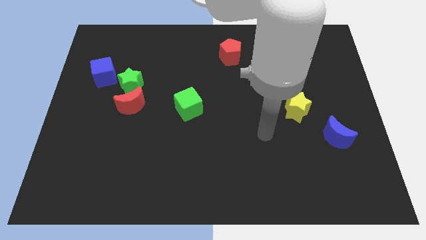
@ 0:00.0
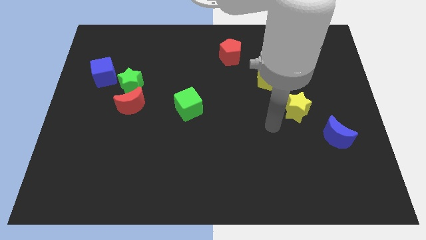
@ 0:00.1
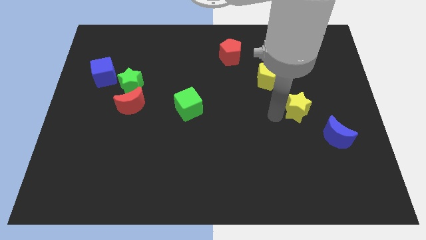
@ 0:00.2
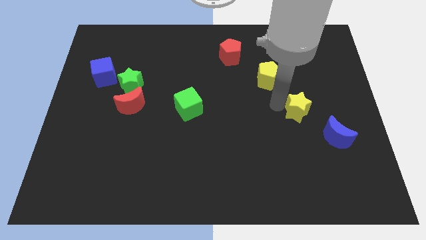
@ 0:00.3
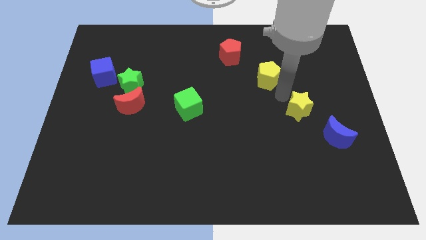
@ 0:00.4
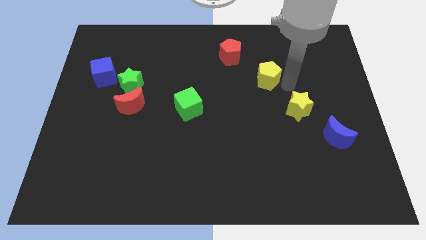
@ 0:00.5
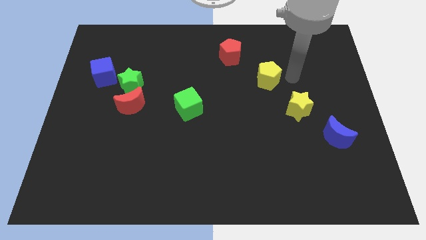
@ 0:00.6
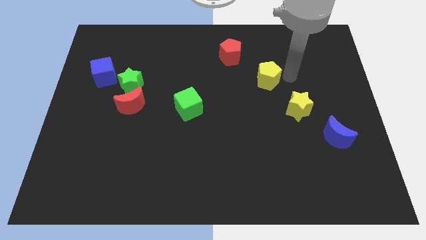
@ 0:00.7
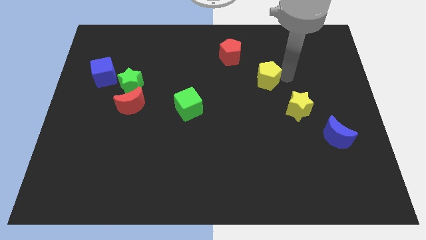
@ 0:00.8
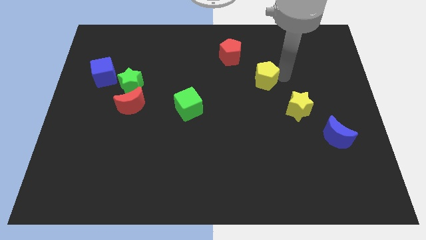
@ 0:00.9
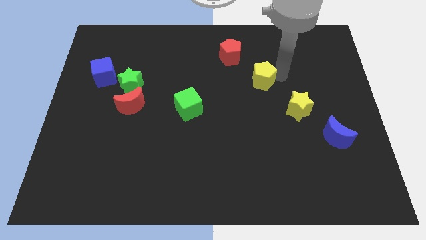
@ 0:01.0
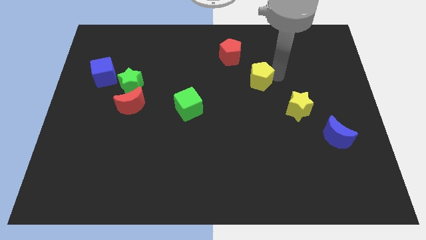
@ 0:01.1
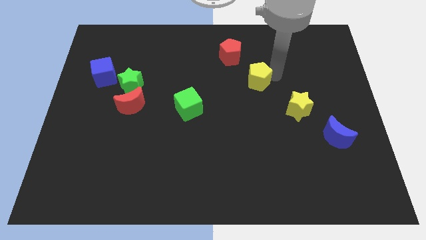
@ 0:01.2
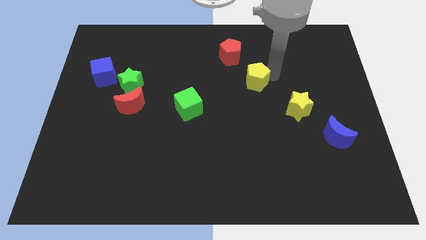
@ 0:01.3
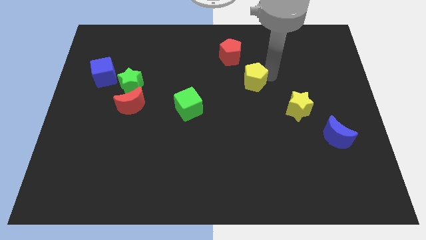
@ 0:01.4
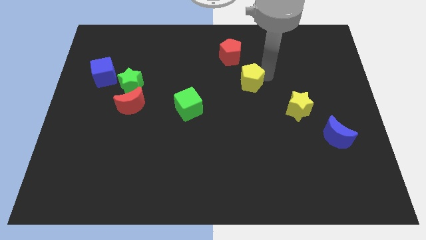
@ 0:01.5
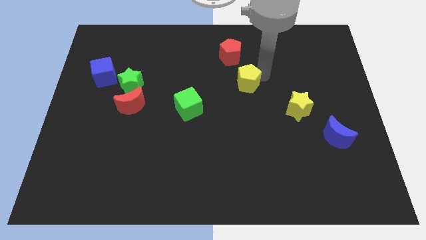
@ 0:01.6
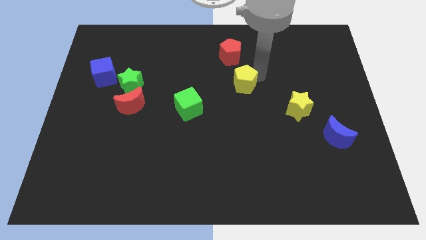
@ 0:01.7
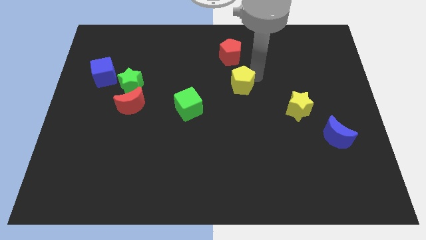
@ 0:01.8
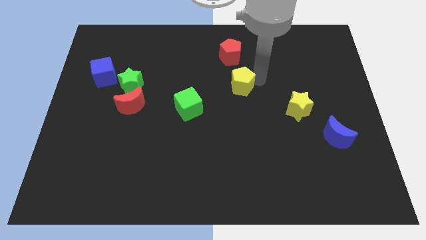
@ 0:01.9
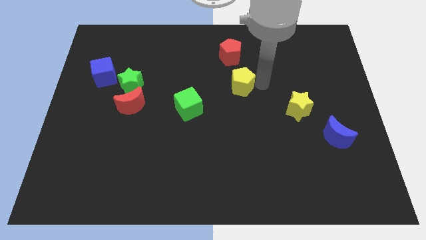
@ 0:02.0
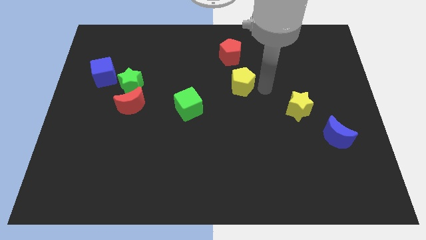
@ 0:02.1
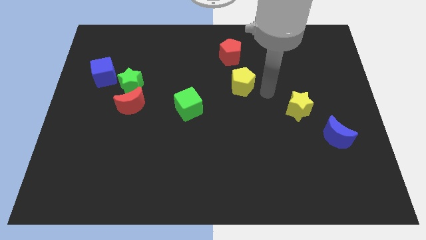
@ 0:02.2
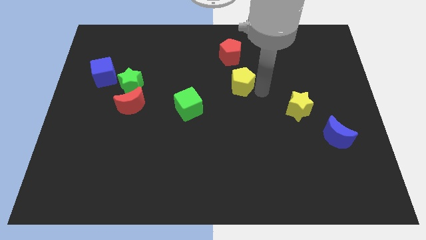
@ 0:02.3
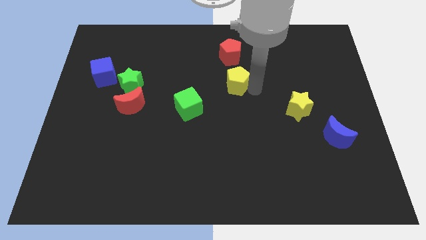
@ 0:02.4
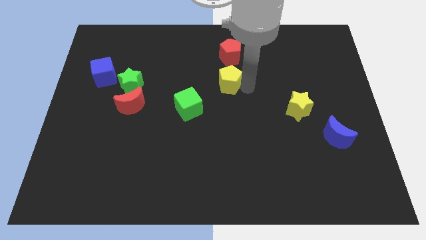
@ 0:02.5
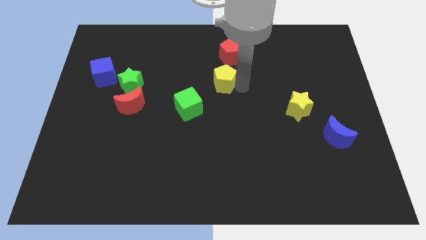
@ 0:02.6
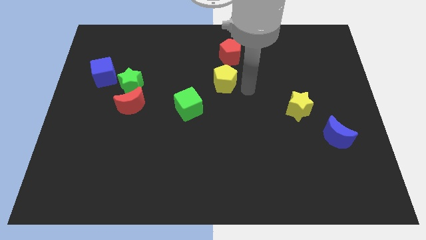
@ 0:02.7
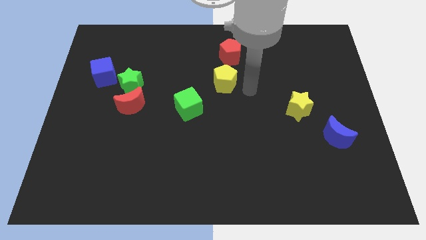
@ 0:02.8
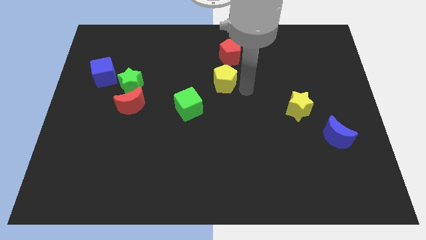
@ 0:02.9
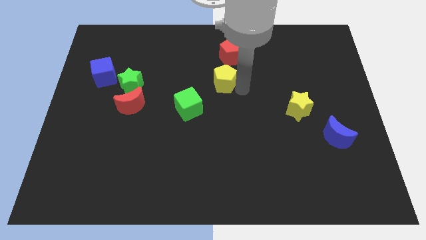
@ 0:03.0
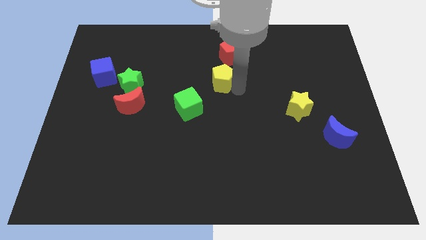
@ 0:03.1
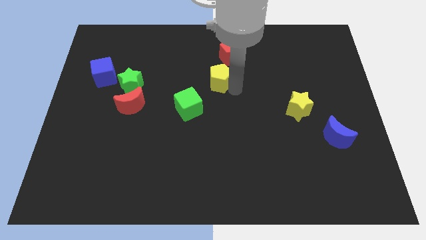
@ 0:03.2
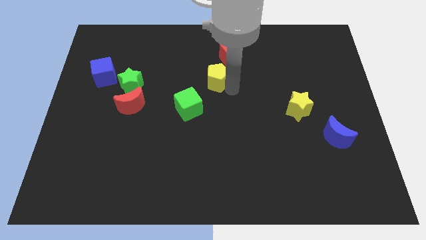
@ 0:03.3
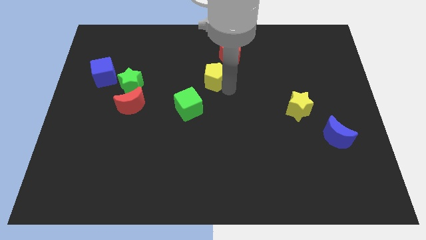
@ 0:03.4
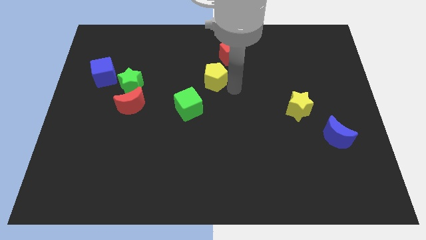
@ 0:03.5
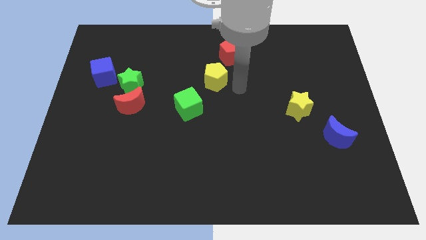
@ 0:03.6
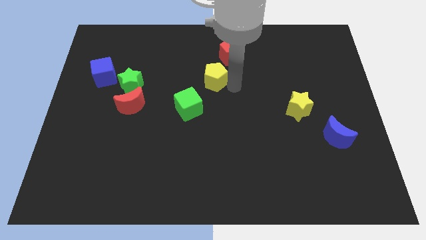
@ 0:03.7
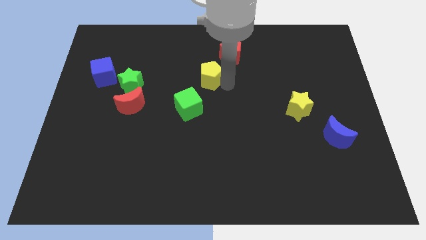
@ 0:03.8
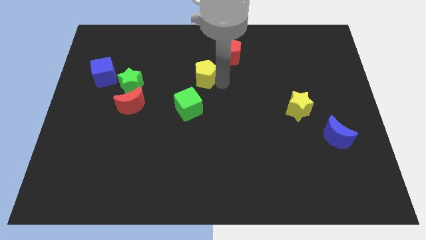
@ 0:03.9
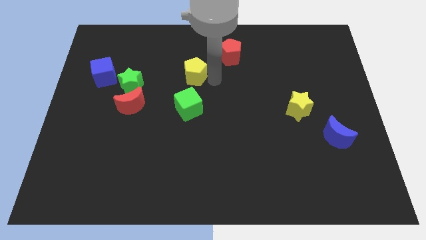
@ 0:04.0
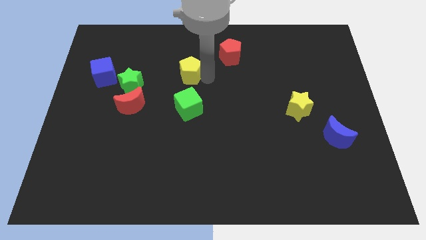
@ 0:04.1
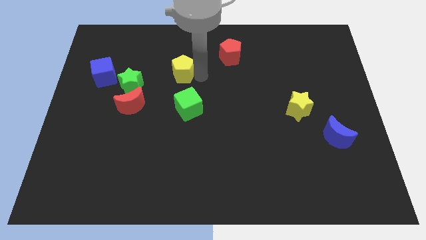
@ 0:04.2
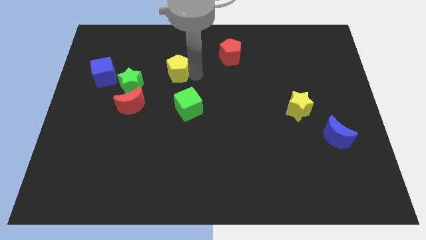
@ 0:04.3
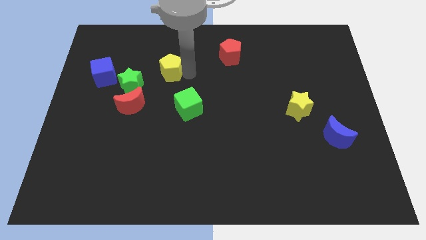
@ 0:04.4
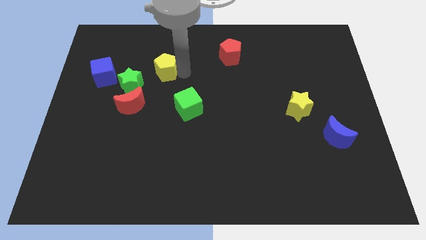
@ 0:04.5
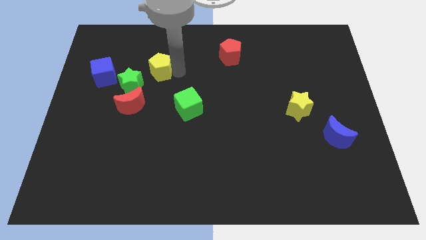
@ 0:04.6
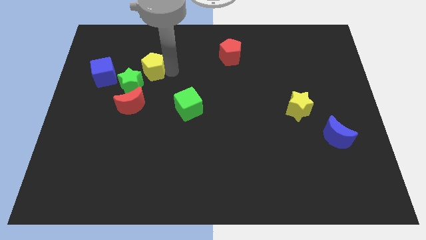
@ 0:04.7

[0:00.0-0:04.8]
put the yellow pentagon above the red moon

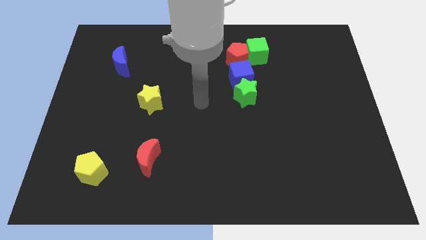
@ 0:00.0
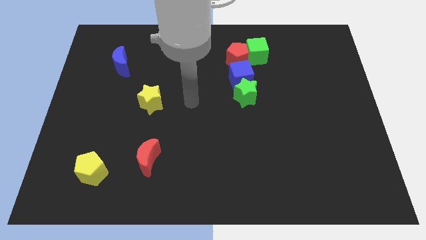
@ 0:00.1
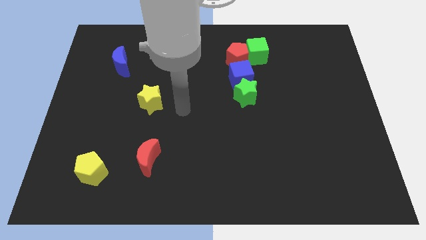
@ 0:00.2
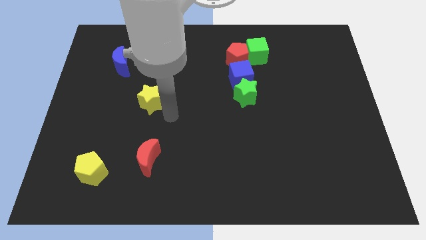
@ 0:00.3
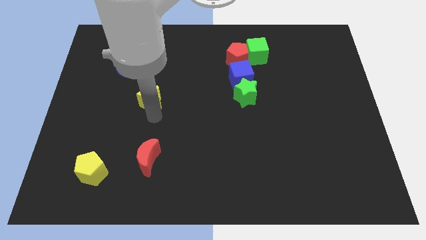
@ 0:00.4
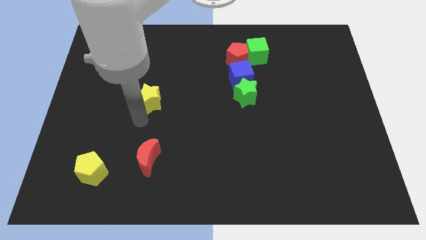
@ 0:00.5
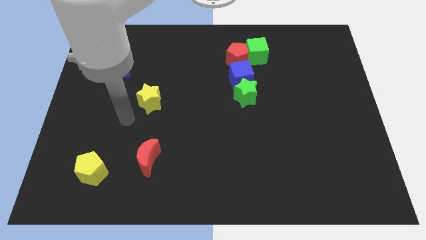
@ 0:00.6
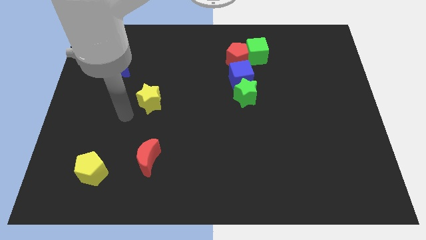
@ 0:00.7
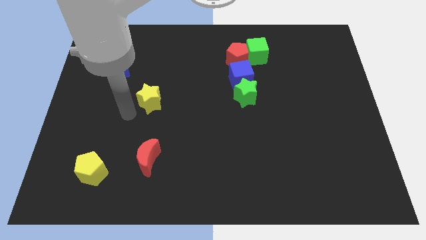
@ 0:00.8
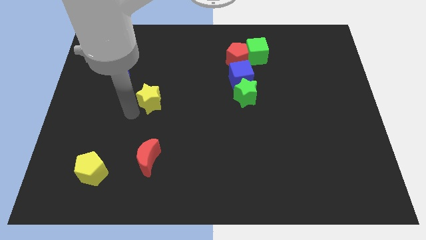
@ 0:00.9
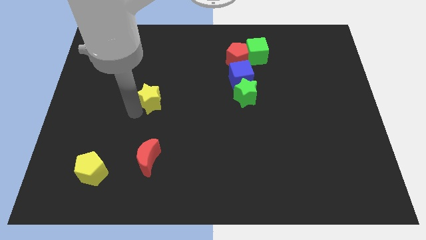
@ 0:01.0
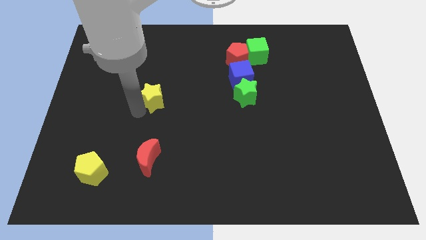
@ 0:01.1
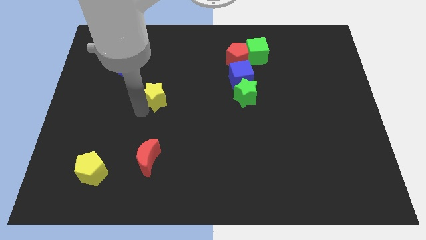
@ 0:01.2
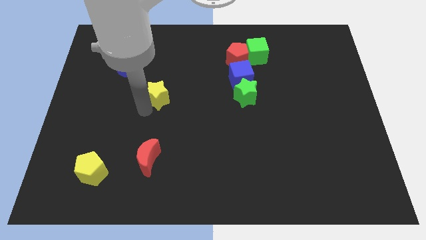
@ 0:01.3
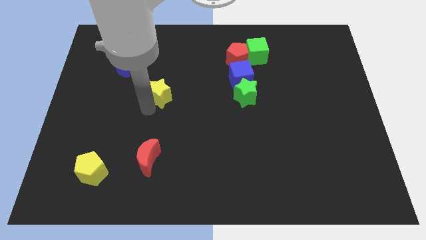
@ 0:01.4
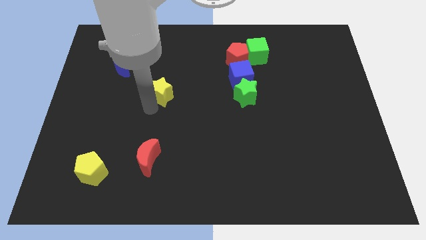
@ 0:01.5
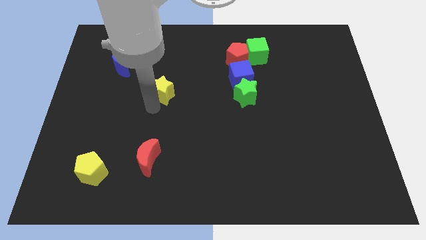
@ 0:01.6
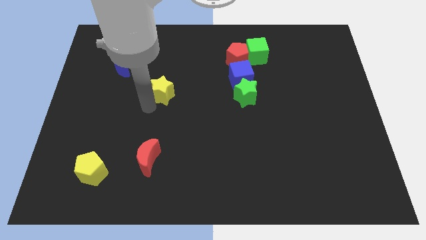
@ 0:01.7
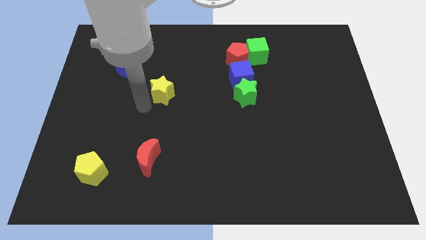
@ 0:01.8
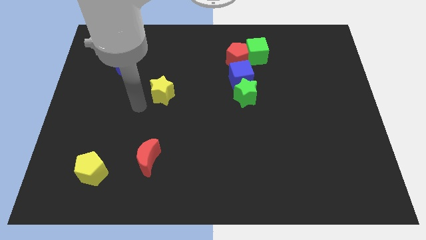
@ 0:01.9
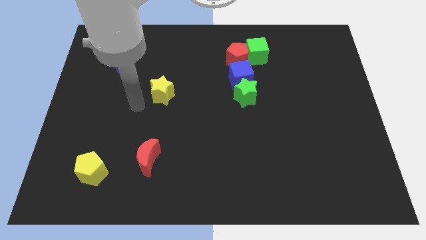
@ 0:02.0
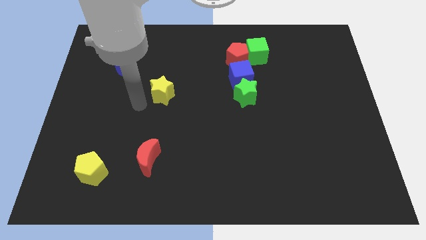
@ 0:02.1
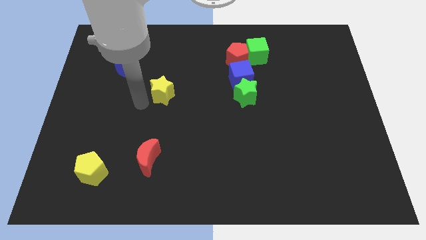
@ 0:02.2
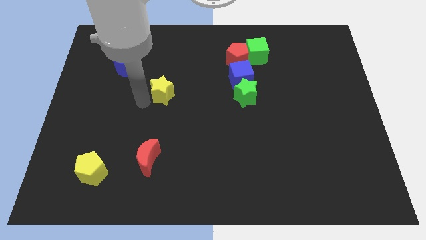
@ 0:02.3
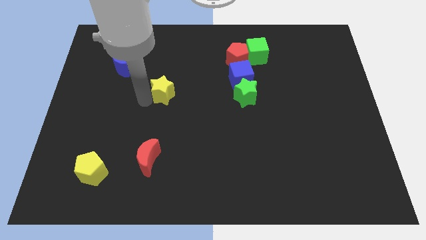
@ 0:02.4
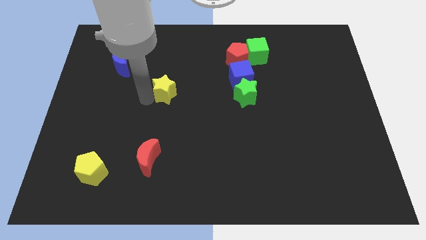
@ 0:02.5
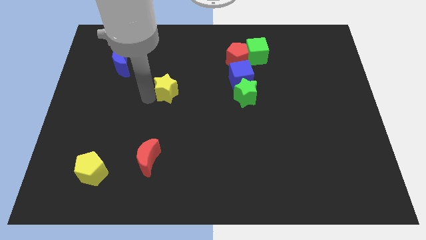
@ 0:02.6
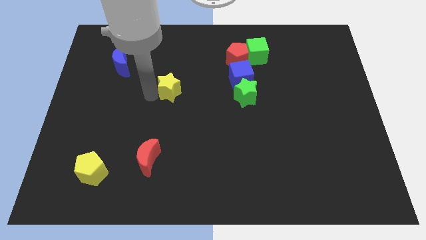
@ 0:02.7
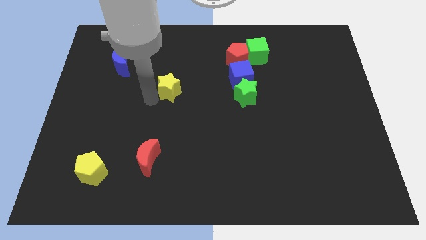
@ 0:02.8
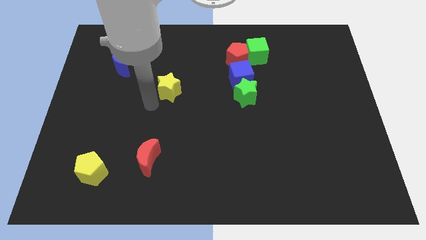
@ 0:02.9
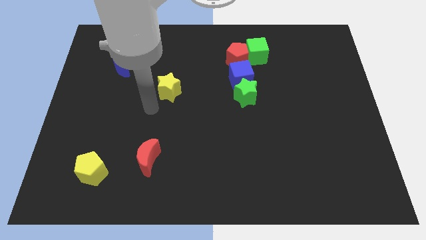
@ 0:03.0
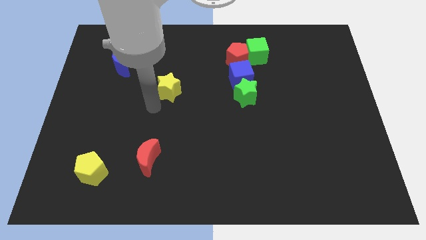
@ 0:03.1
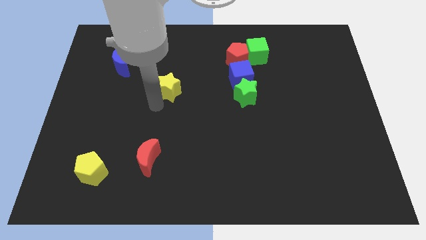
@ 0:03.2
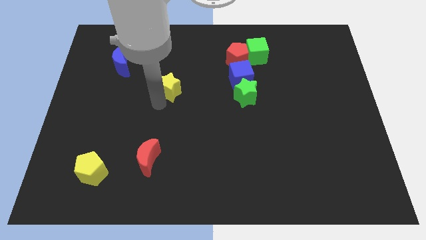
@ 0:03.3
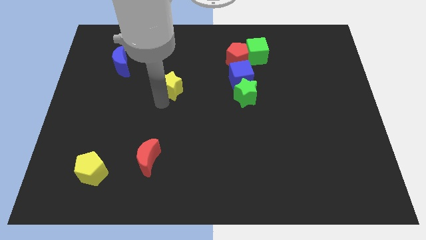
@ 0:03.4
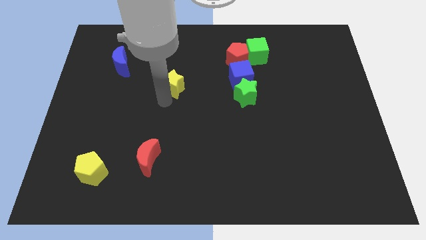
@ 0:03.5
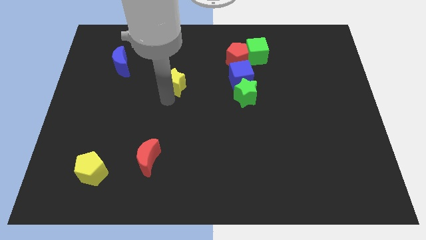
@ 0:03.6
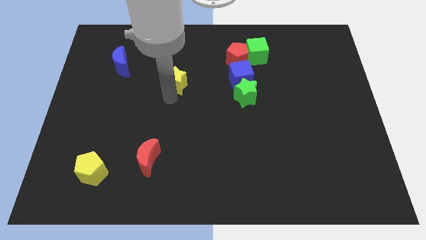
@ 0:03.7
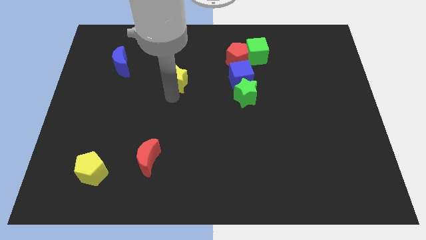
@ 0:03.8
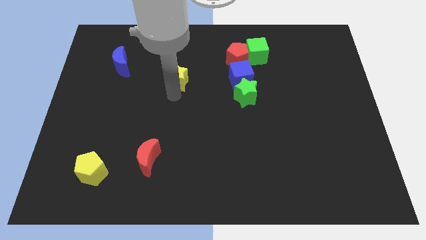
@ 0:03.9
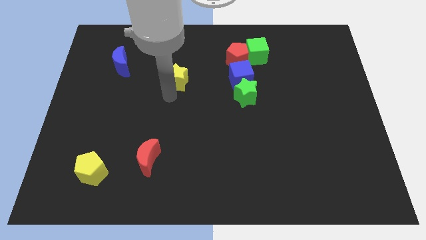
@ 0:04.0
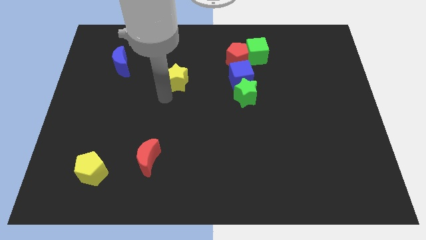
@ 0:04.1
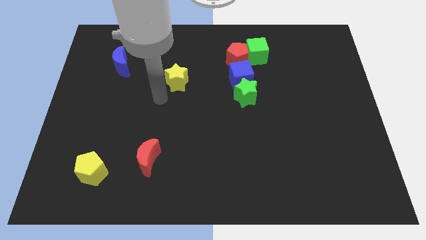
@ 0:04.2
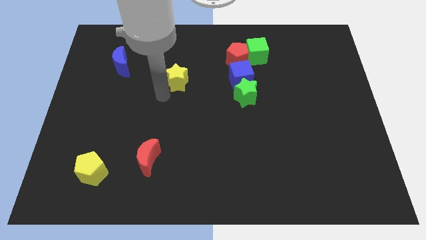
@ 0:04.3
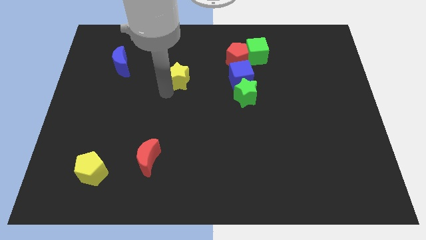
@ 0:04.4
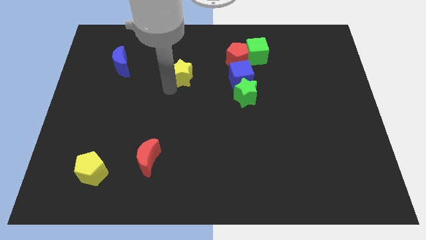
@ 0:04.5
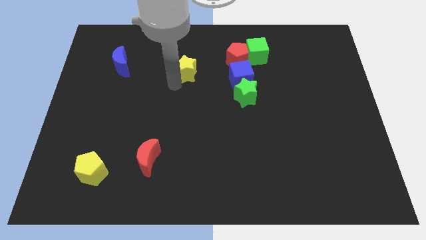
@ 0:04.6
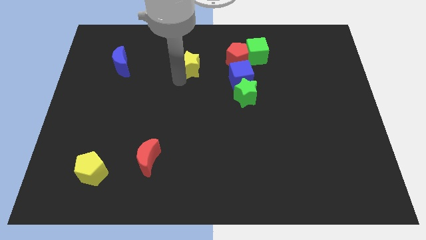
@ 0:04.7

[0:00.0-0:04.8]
push the yellow star just left of the red pentagon
